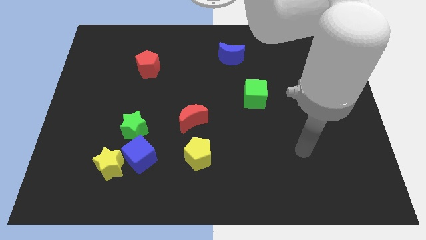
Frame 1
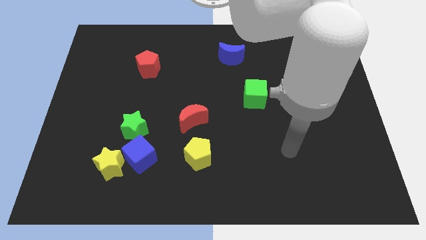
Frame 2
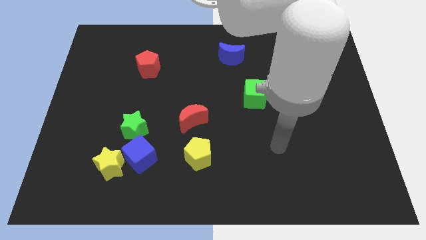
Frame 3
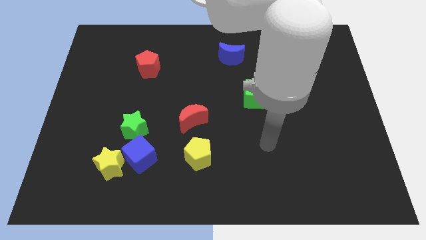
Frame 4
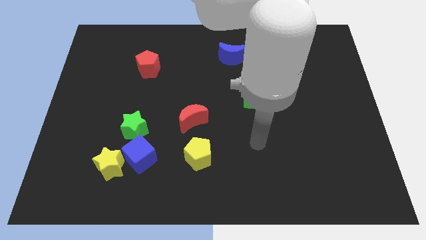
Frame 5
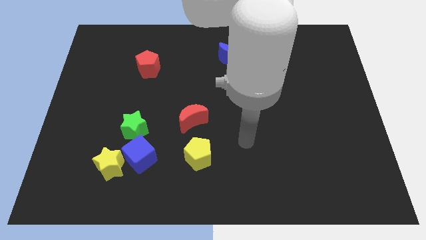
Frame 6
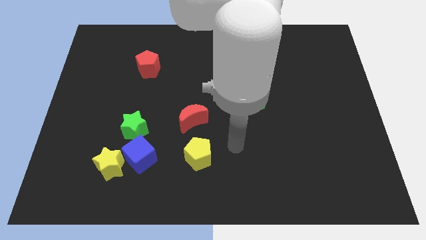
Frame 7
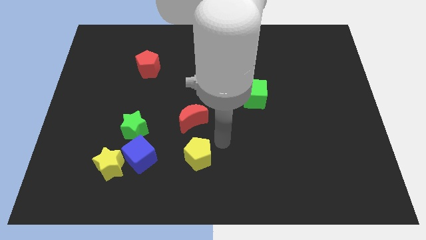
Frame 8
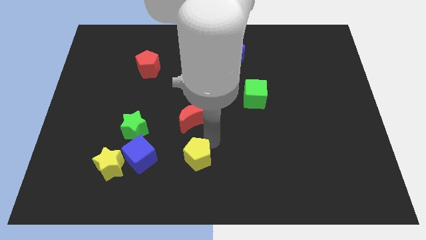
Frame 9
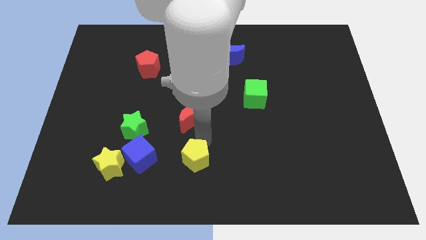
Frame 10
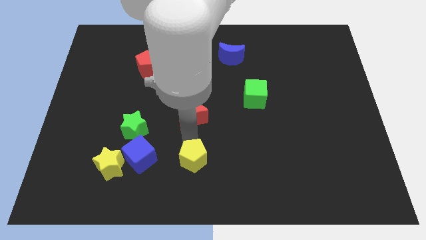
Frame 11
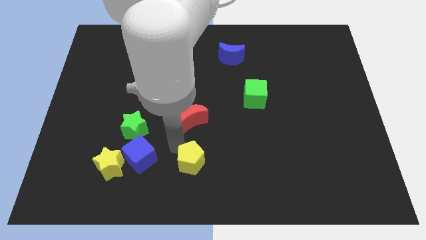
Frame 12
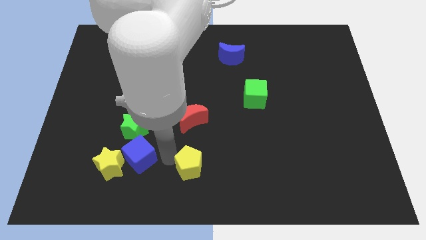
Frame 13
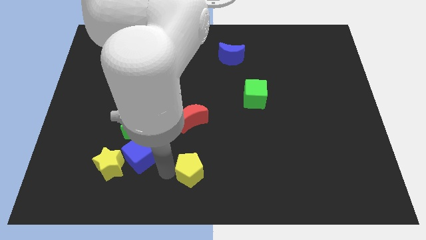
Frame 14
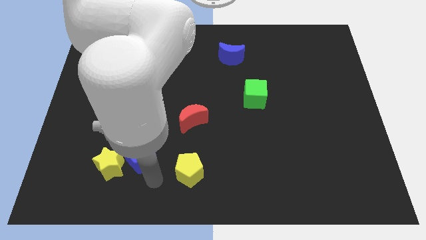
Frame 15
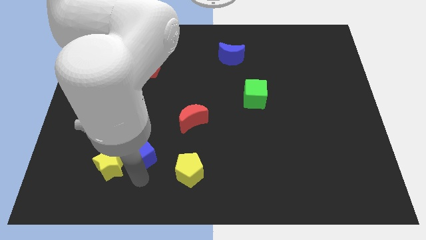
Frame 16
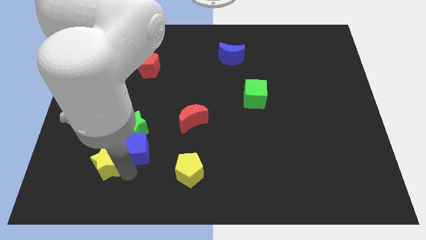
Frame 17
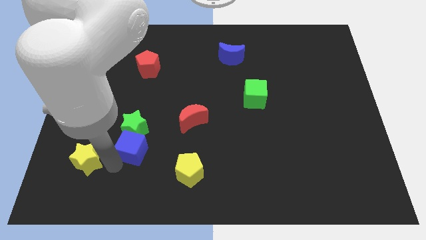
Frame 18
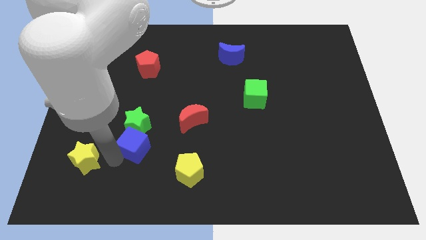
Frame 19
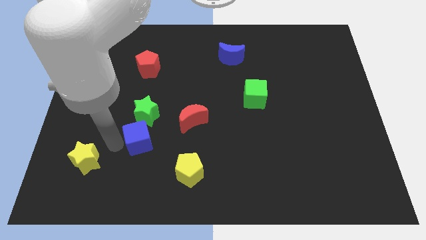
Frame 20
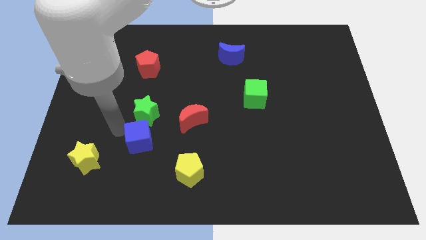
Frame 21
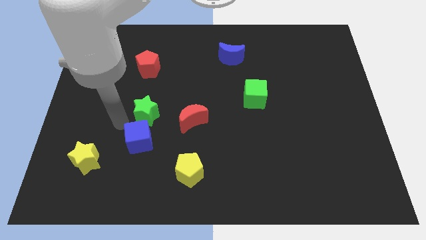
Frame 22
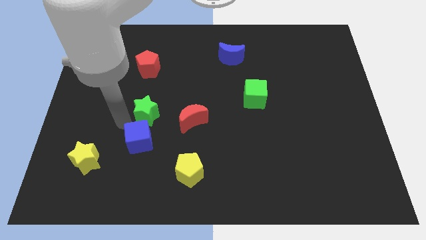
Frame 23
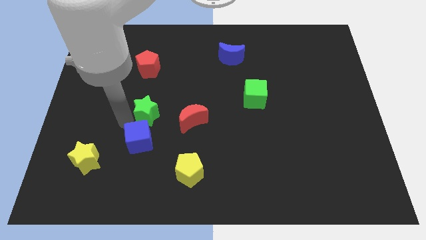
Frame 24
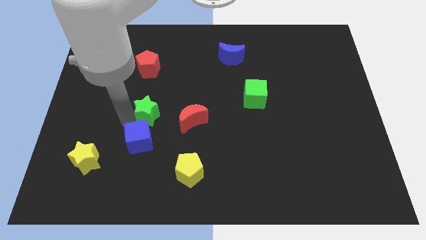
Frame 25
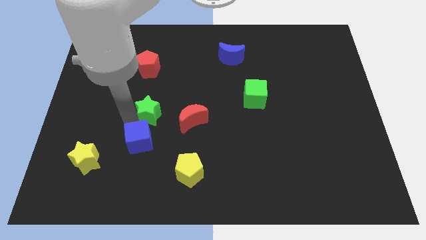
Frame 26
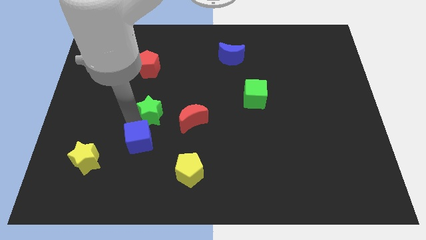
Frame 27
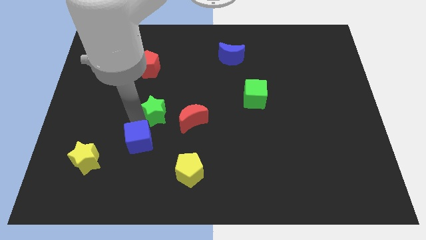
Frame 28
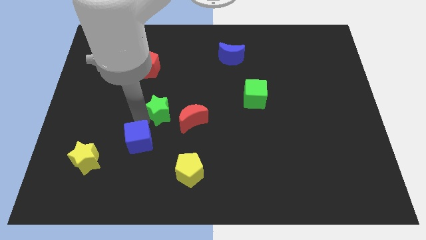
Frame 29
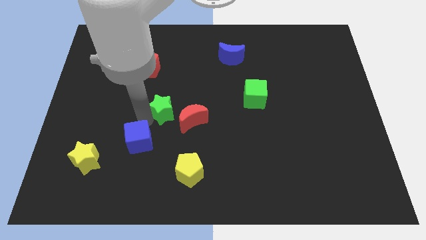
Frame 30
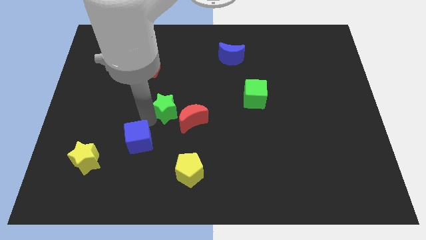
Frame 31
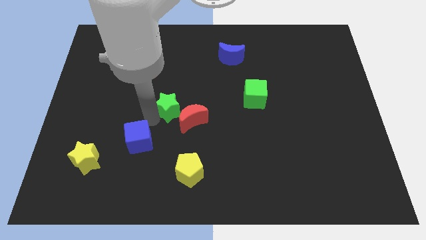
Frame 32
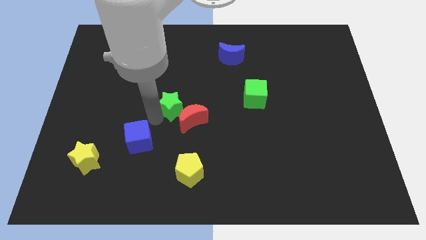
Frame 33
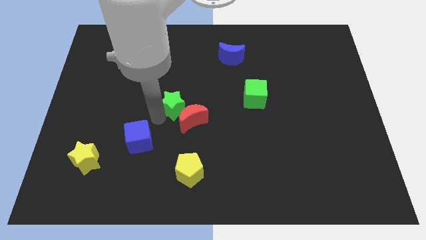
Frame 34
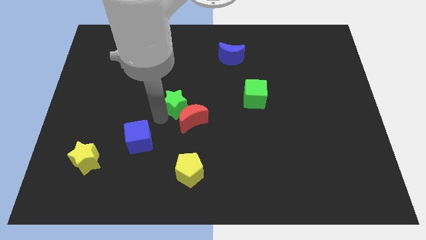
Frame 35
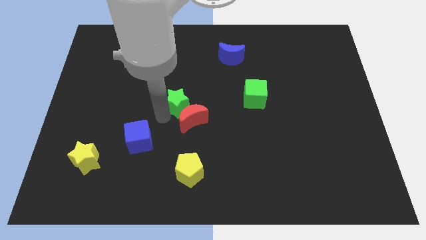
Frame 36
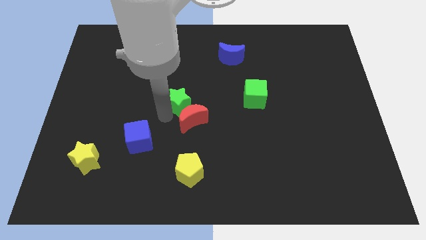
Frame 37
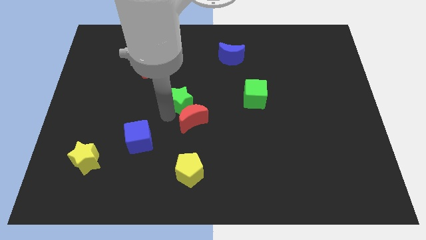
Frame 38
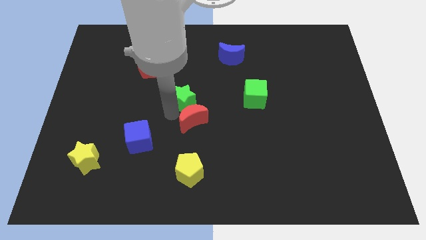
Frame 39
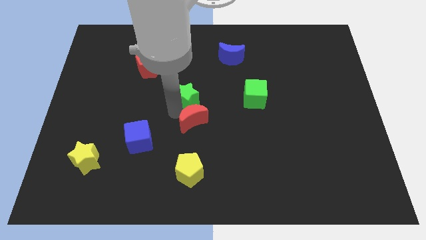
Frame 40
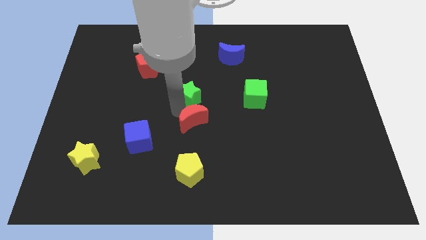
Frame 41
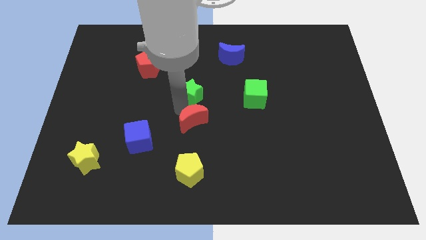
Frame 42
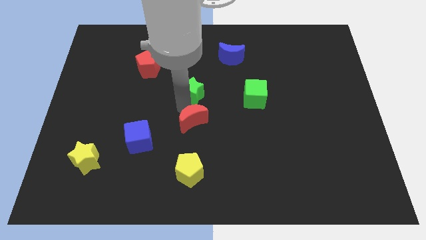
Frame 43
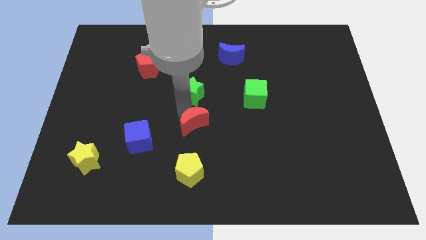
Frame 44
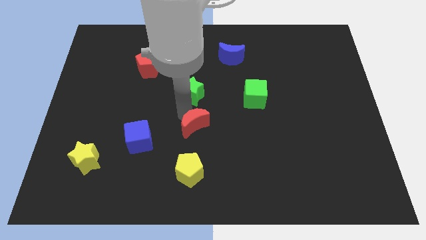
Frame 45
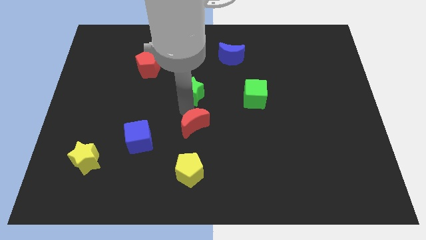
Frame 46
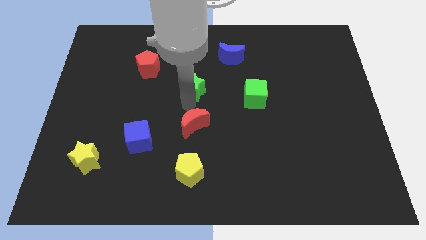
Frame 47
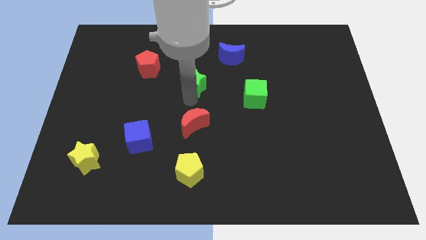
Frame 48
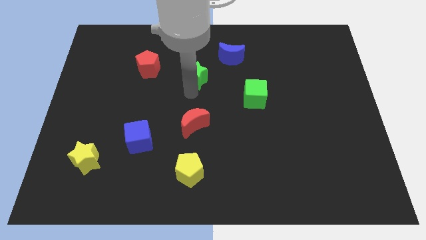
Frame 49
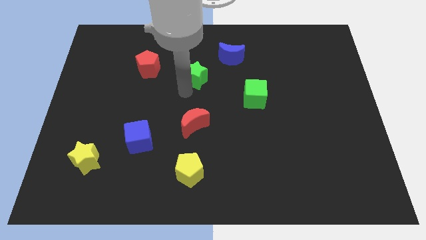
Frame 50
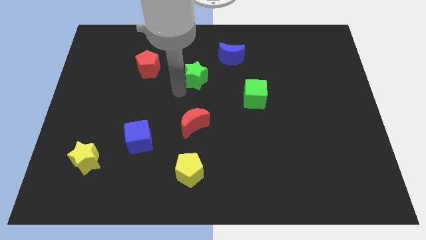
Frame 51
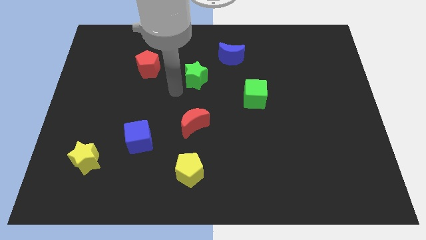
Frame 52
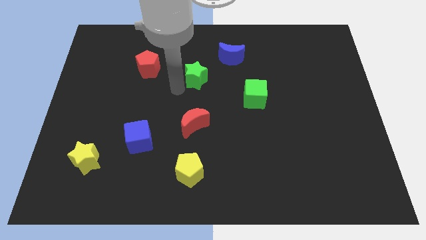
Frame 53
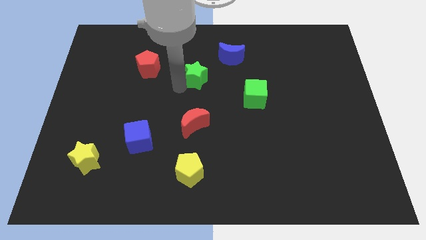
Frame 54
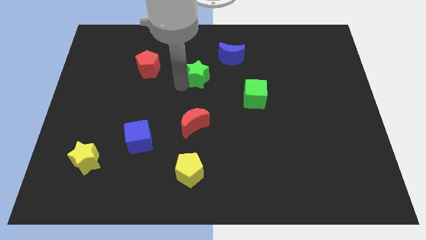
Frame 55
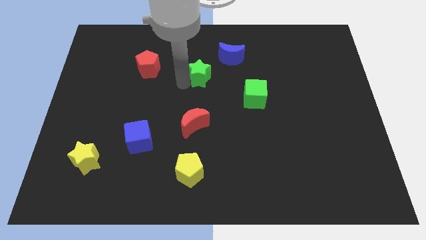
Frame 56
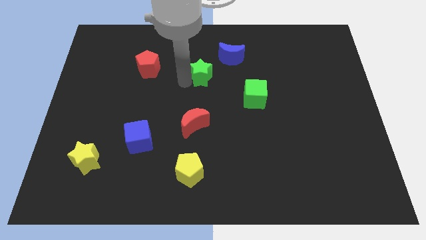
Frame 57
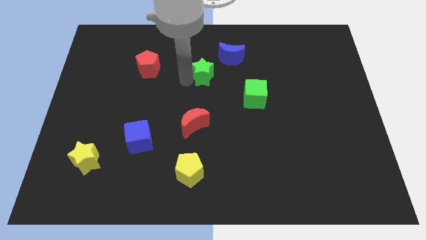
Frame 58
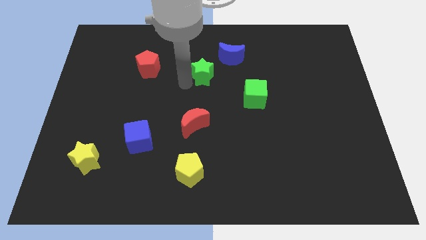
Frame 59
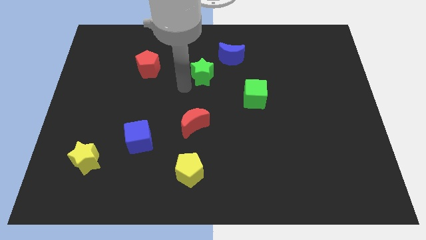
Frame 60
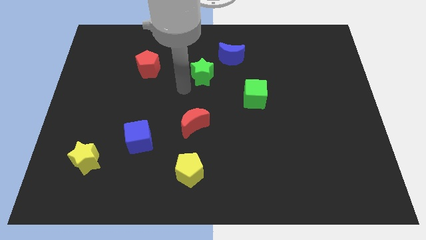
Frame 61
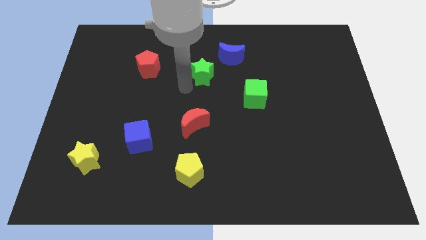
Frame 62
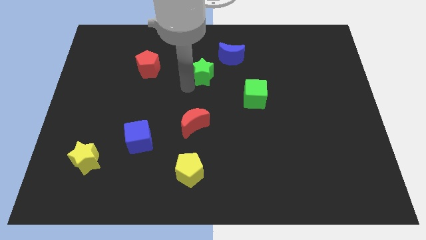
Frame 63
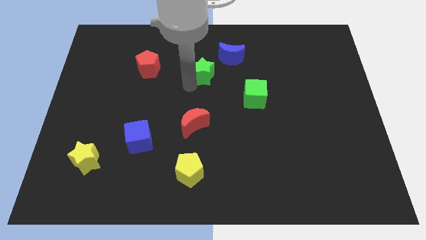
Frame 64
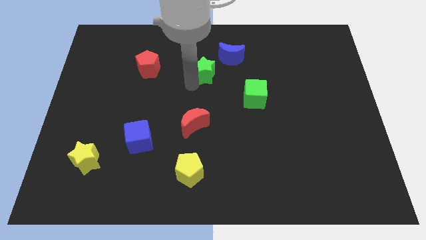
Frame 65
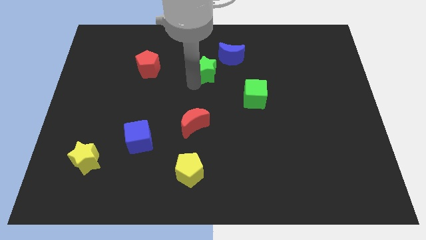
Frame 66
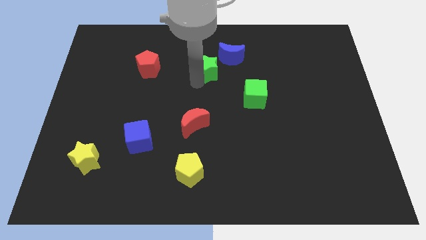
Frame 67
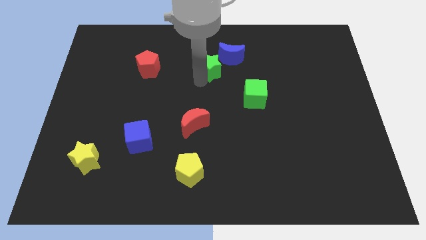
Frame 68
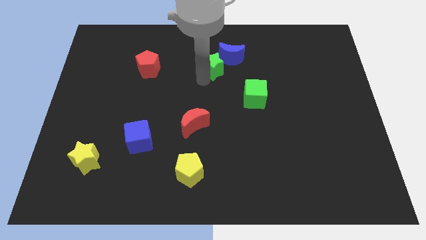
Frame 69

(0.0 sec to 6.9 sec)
slide the green star towards the blue moon

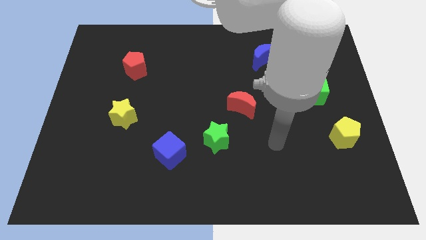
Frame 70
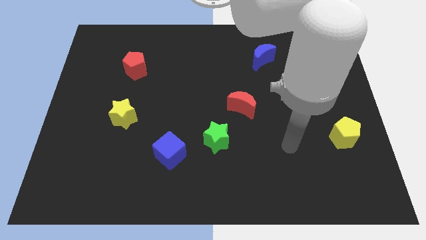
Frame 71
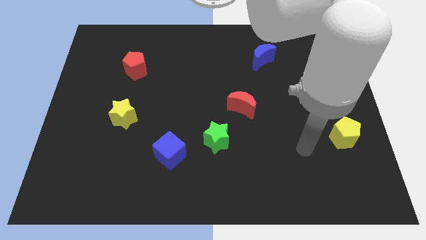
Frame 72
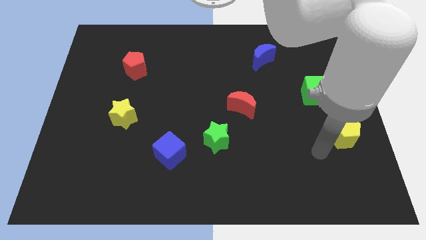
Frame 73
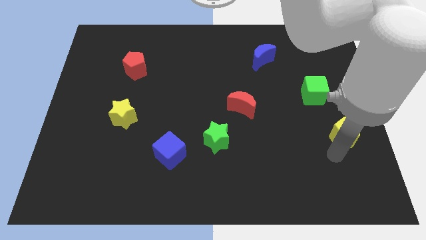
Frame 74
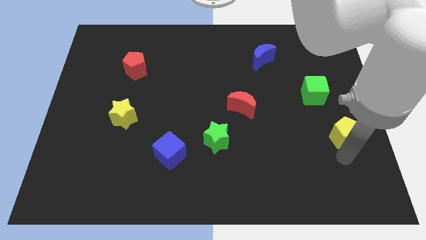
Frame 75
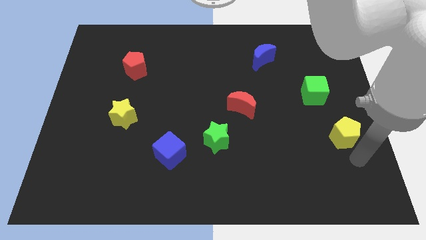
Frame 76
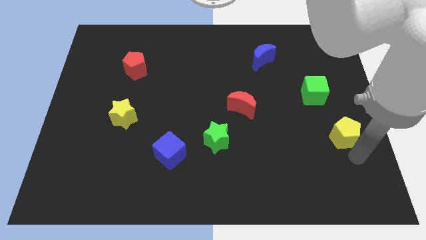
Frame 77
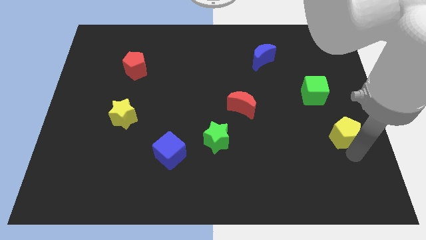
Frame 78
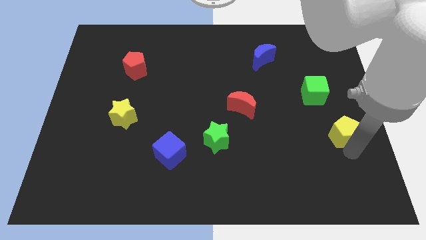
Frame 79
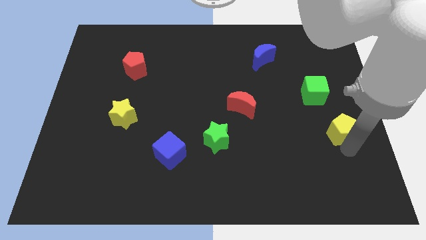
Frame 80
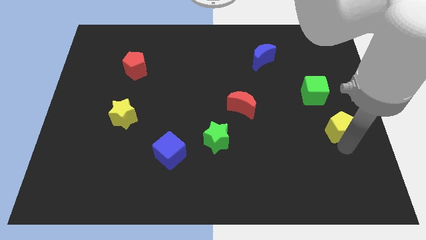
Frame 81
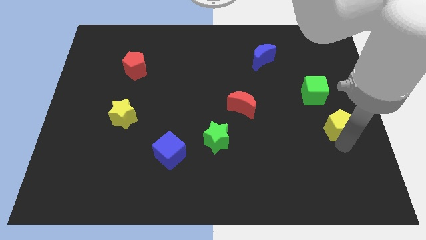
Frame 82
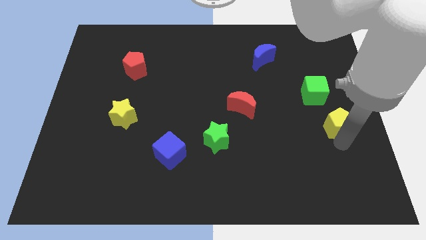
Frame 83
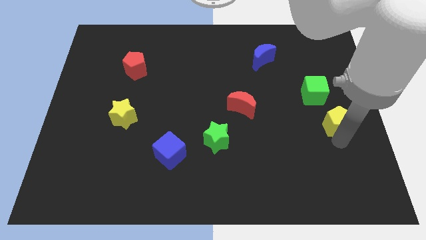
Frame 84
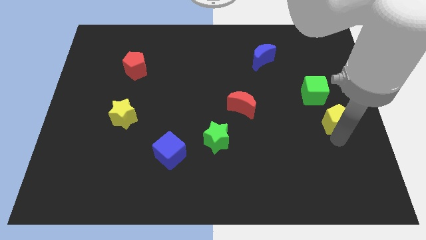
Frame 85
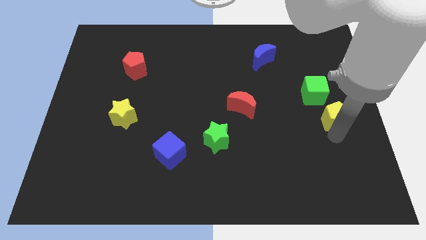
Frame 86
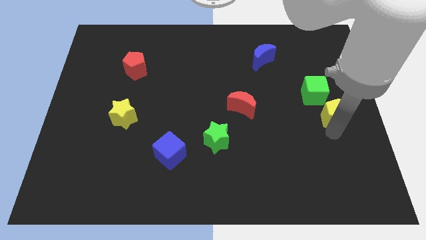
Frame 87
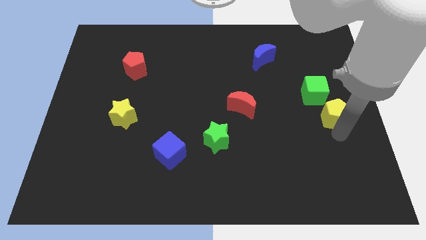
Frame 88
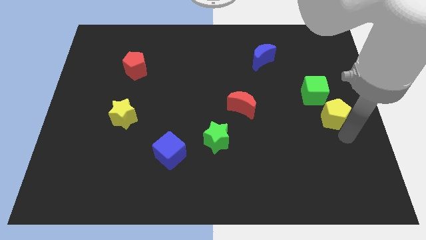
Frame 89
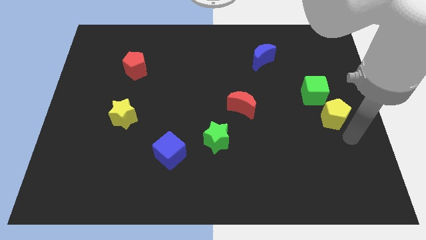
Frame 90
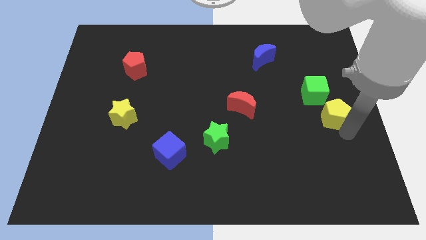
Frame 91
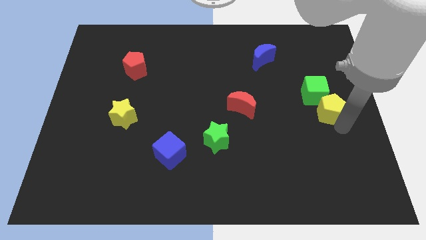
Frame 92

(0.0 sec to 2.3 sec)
put the yellow pentagon close to the green cube
